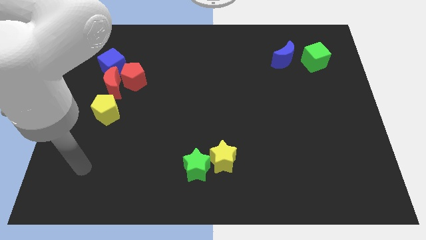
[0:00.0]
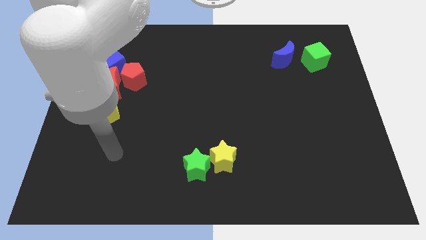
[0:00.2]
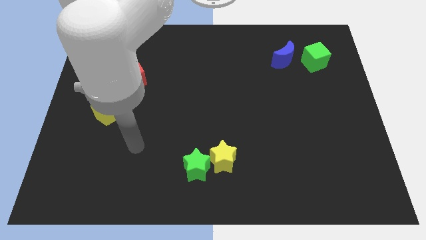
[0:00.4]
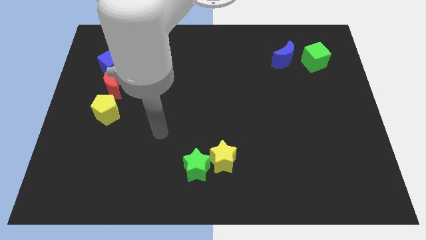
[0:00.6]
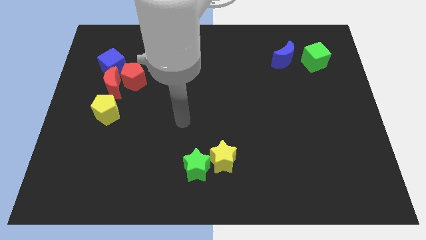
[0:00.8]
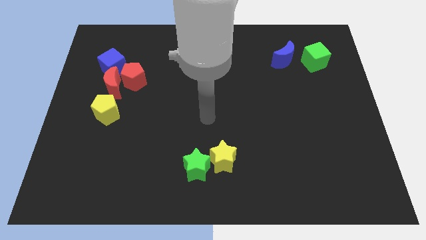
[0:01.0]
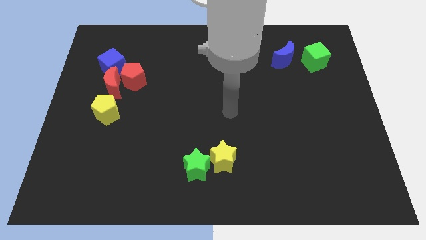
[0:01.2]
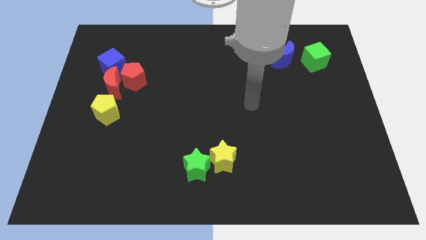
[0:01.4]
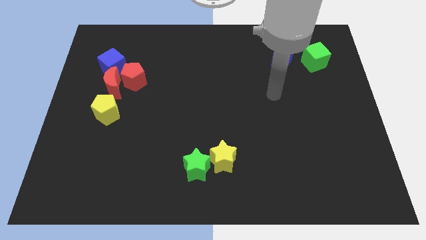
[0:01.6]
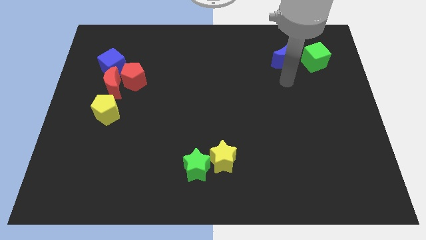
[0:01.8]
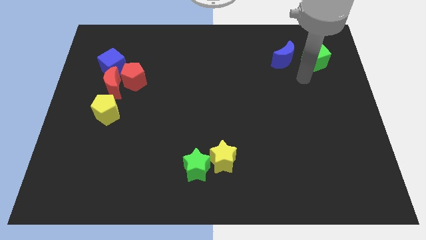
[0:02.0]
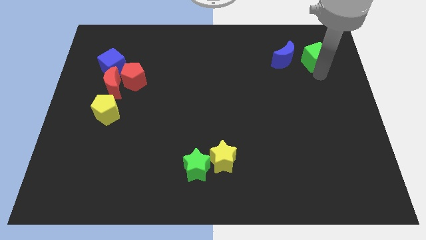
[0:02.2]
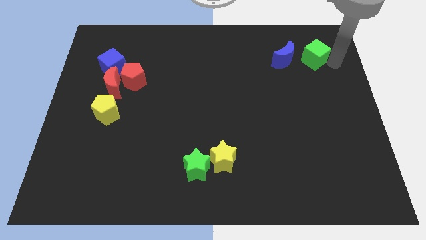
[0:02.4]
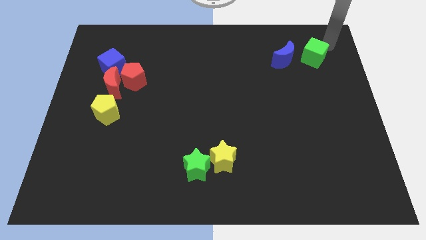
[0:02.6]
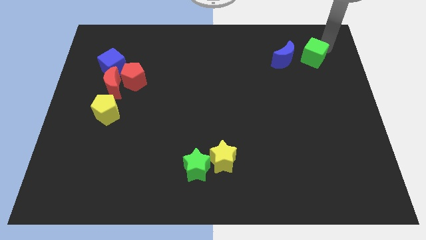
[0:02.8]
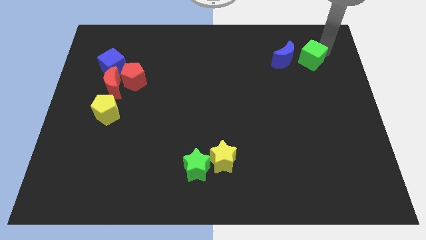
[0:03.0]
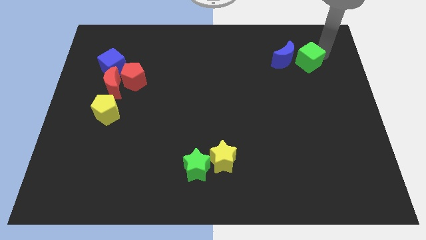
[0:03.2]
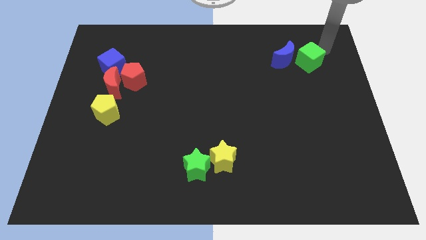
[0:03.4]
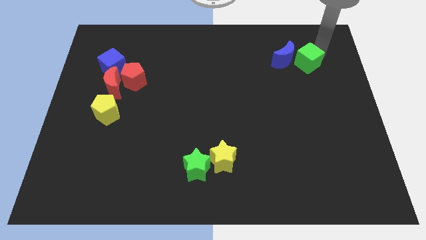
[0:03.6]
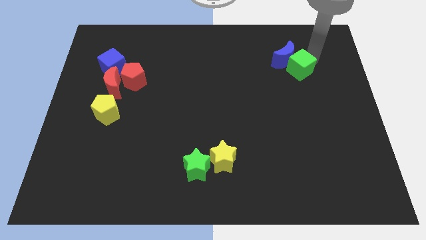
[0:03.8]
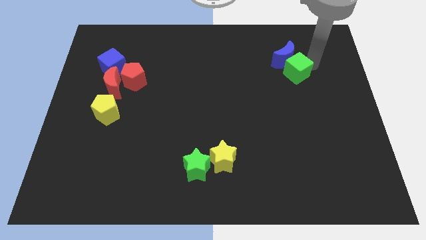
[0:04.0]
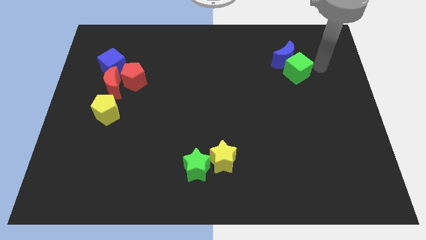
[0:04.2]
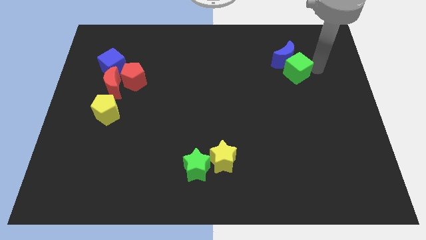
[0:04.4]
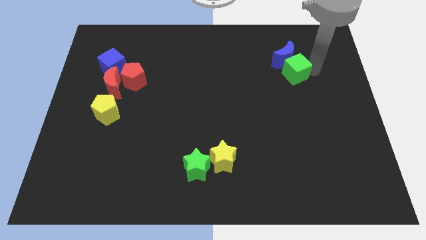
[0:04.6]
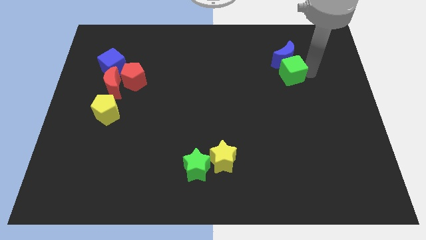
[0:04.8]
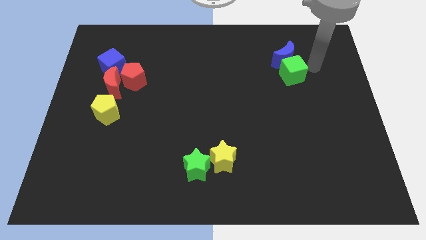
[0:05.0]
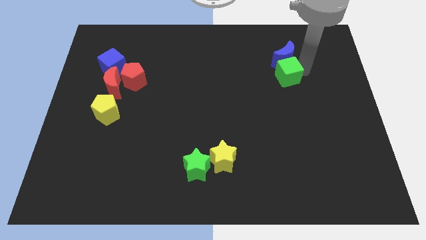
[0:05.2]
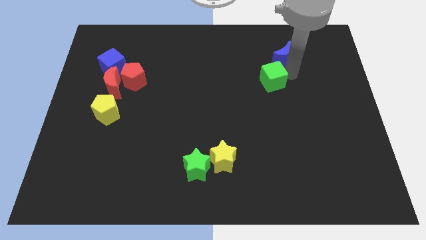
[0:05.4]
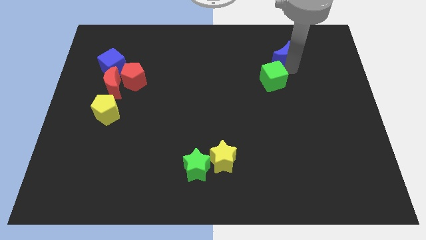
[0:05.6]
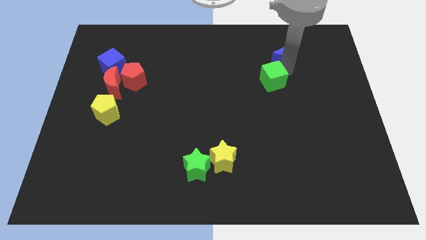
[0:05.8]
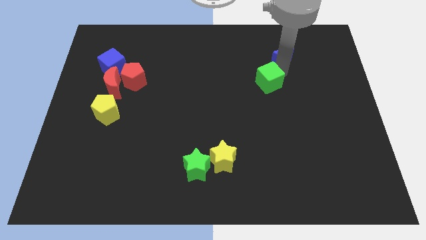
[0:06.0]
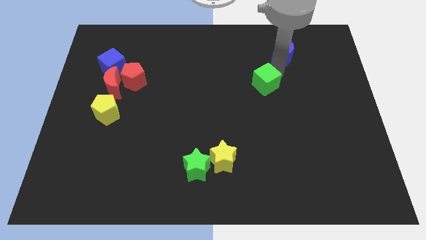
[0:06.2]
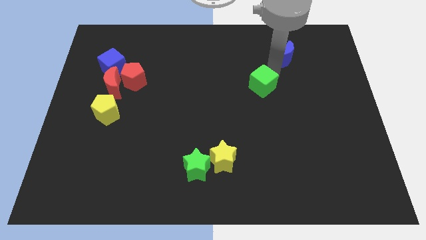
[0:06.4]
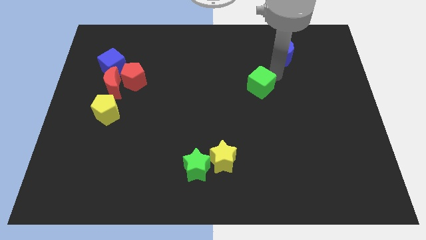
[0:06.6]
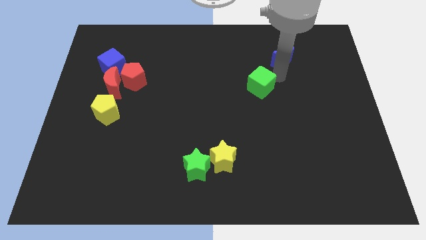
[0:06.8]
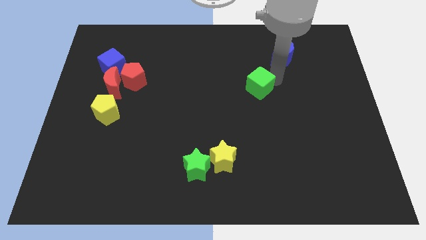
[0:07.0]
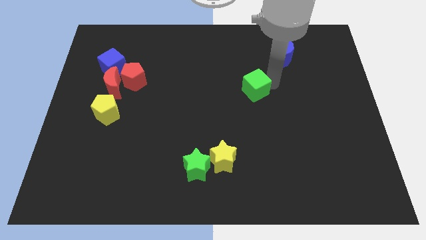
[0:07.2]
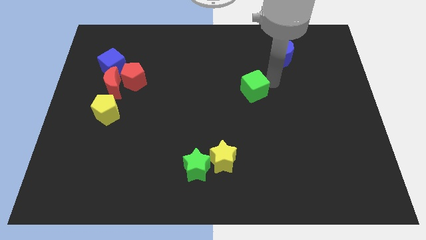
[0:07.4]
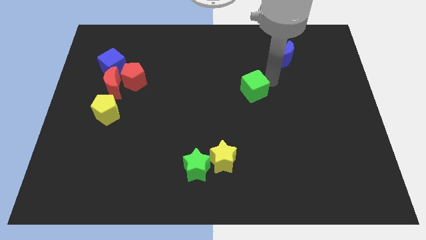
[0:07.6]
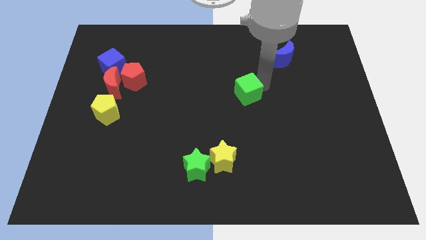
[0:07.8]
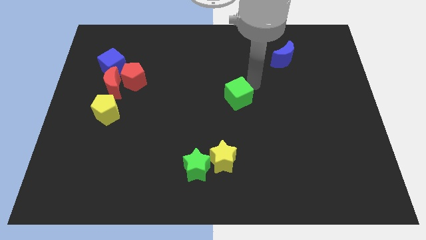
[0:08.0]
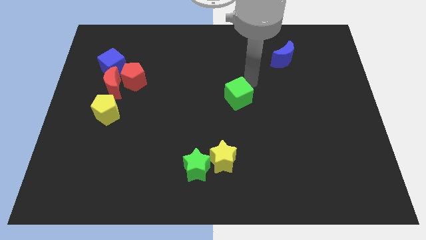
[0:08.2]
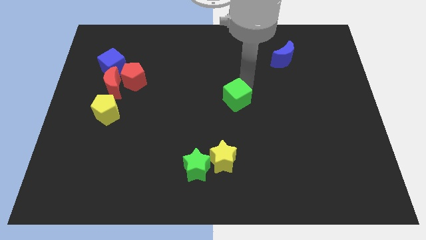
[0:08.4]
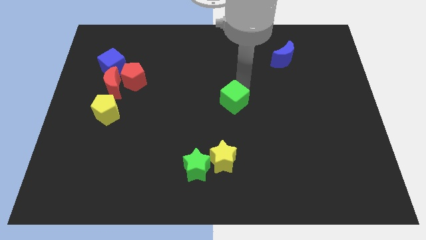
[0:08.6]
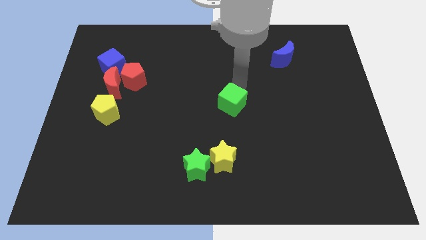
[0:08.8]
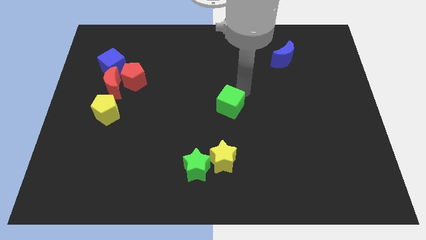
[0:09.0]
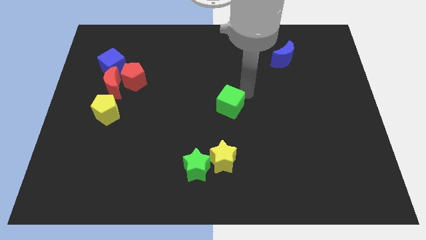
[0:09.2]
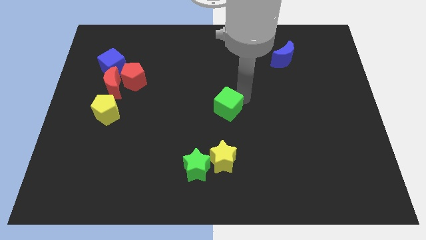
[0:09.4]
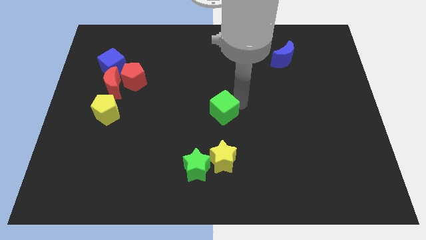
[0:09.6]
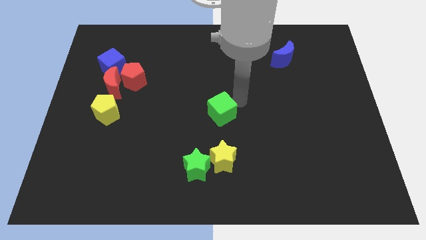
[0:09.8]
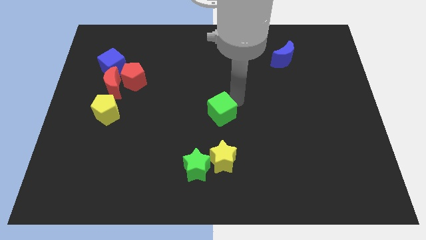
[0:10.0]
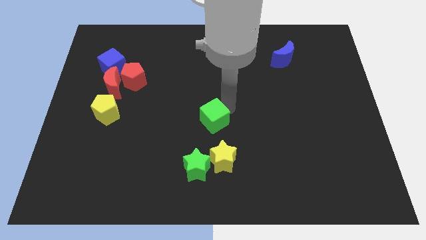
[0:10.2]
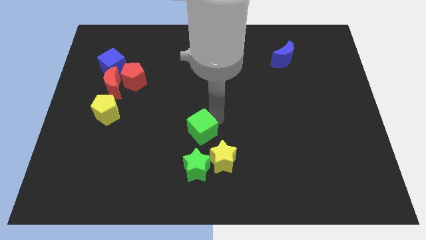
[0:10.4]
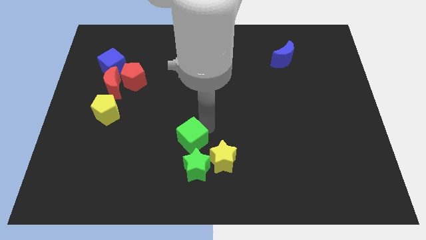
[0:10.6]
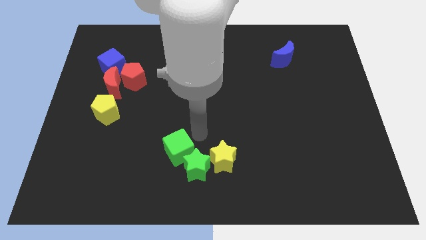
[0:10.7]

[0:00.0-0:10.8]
push the green cube left of the green star

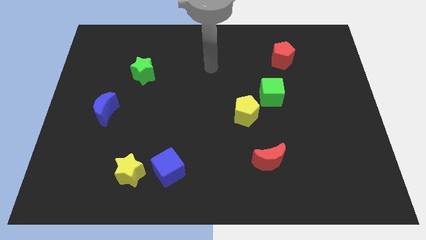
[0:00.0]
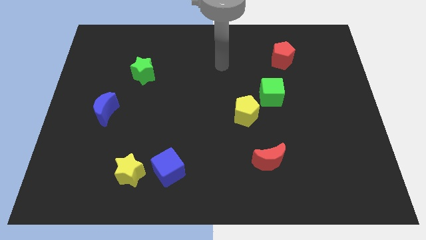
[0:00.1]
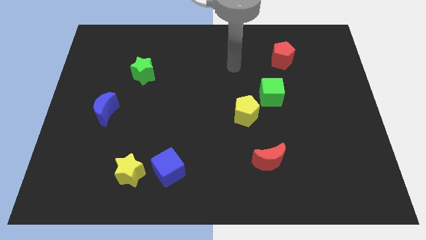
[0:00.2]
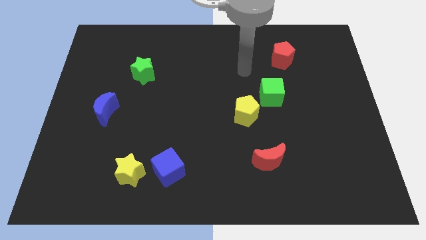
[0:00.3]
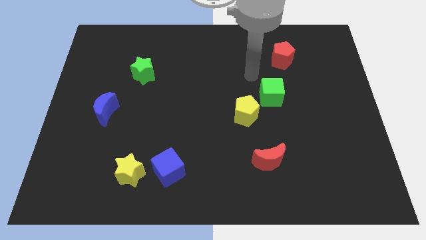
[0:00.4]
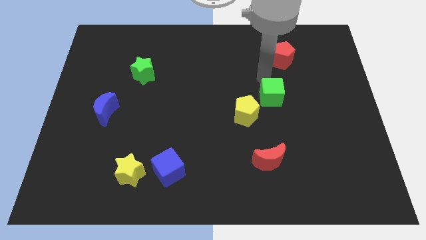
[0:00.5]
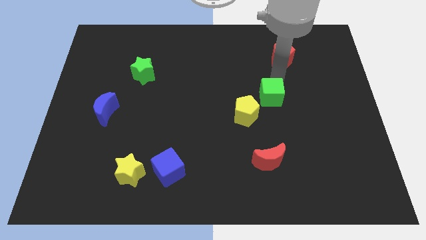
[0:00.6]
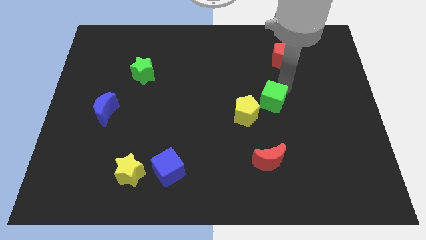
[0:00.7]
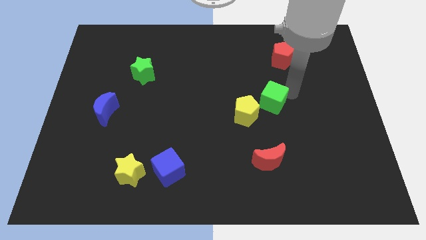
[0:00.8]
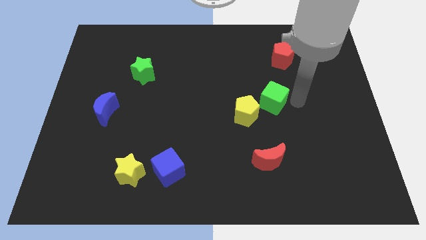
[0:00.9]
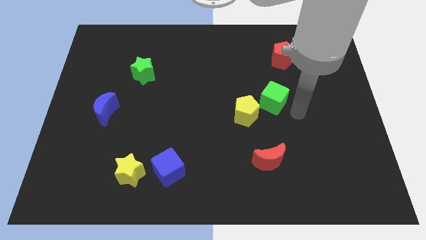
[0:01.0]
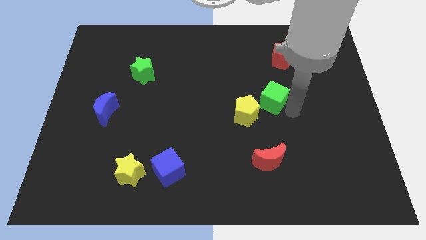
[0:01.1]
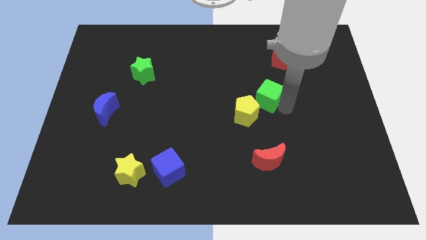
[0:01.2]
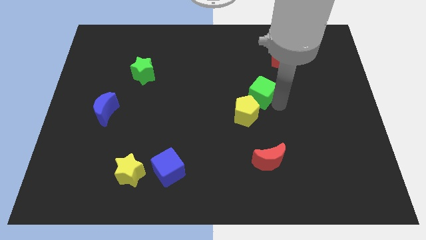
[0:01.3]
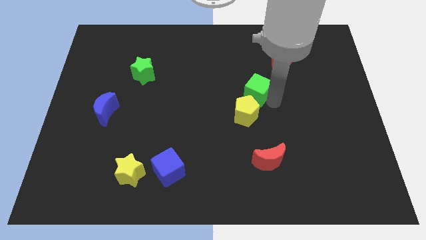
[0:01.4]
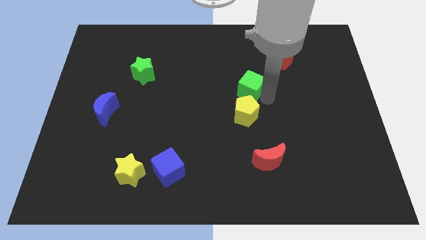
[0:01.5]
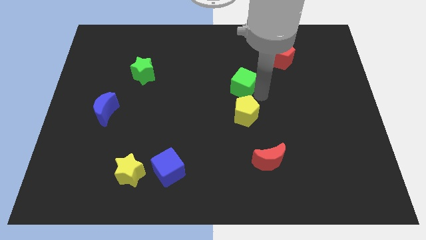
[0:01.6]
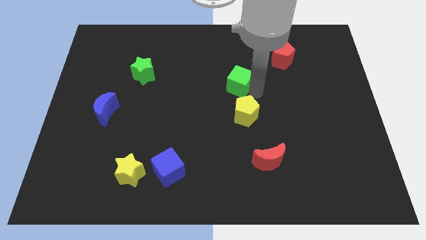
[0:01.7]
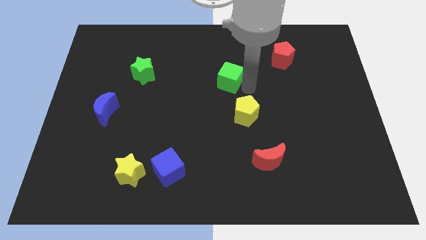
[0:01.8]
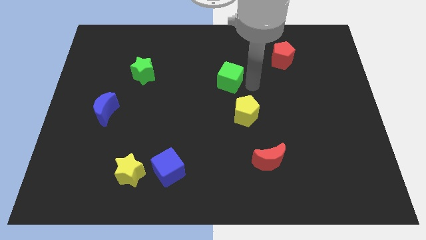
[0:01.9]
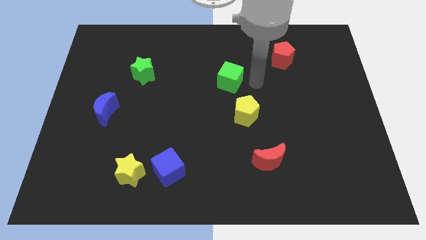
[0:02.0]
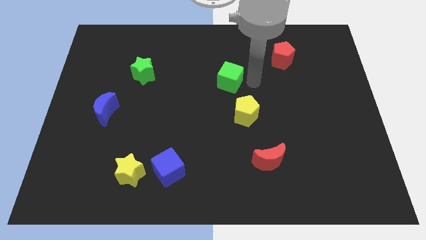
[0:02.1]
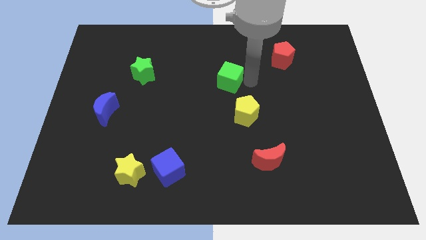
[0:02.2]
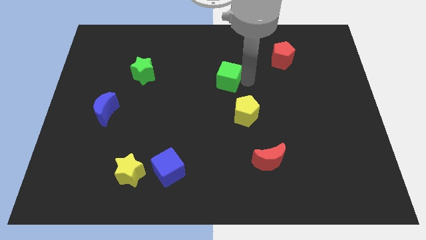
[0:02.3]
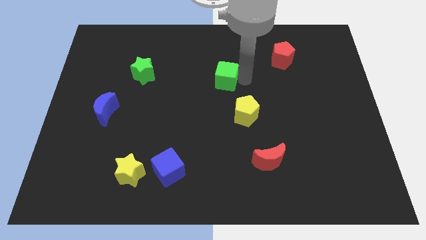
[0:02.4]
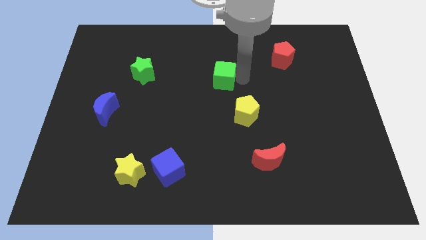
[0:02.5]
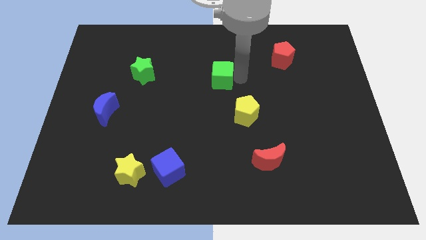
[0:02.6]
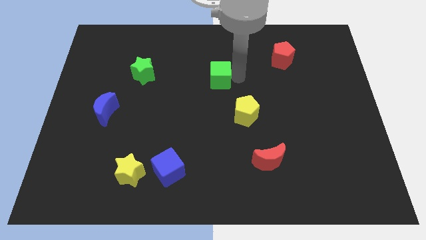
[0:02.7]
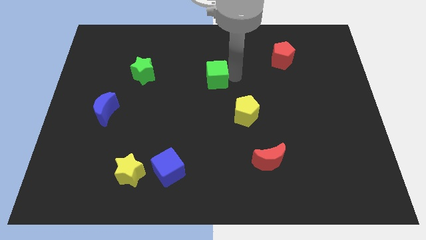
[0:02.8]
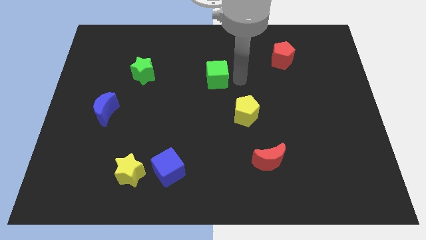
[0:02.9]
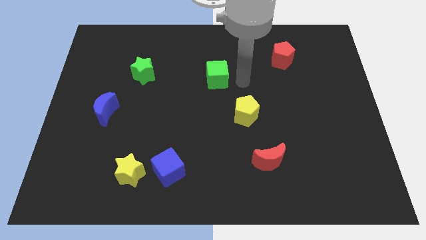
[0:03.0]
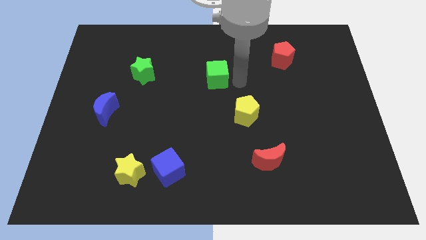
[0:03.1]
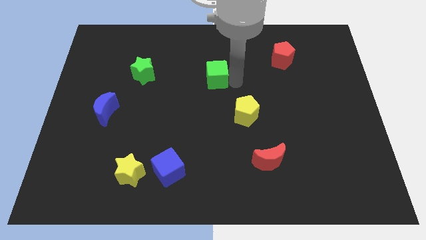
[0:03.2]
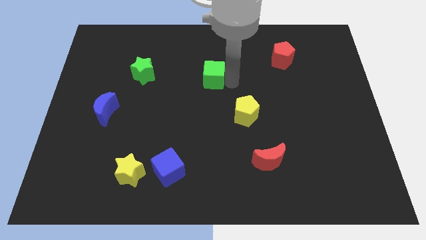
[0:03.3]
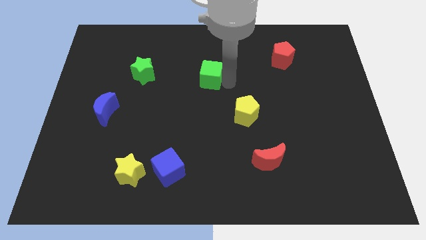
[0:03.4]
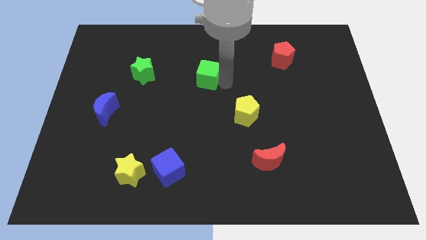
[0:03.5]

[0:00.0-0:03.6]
push the green cube to the right of the green star
